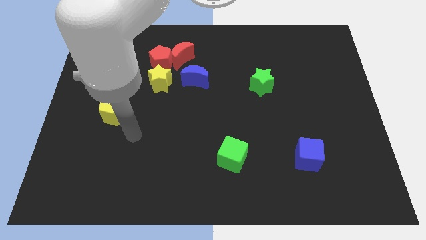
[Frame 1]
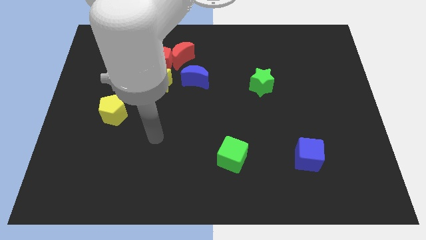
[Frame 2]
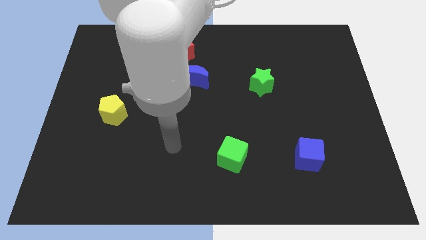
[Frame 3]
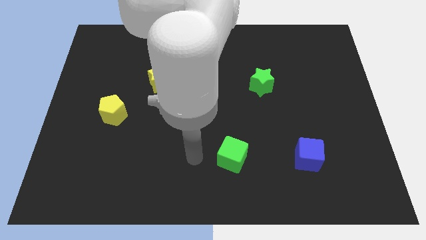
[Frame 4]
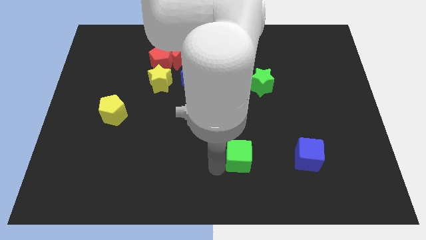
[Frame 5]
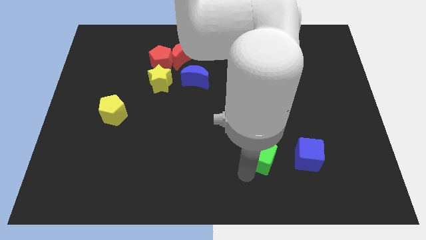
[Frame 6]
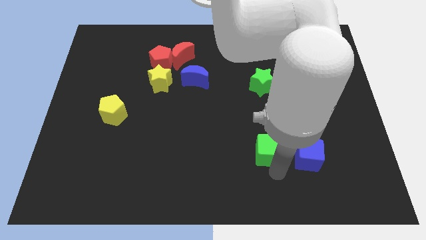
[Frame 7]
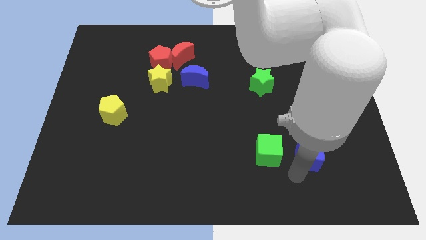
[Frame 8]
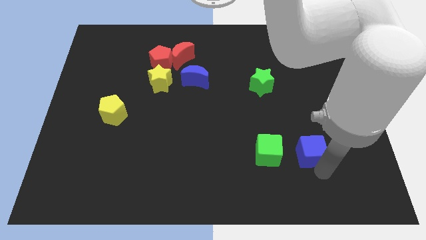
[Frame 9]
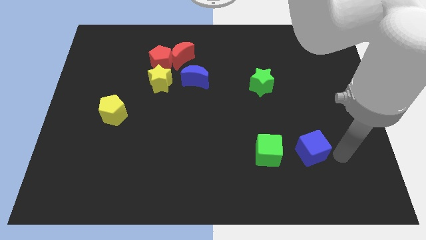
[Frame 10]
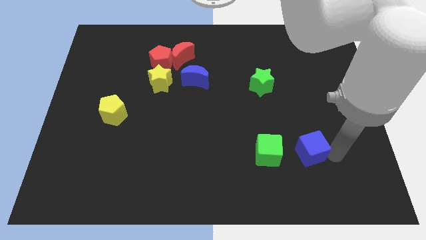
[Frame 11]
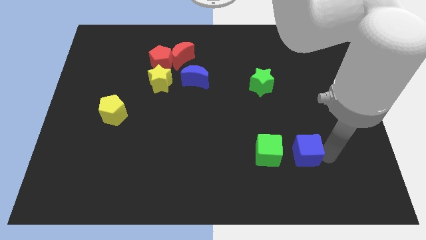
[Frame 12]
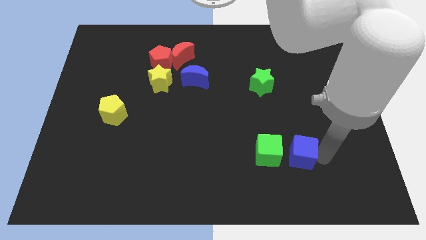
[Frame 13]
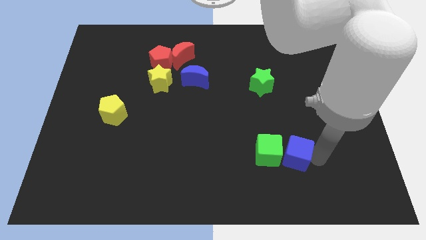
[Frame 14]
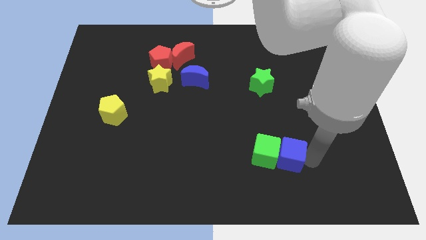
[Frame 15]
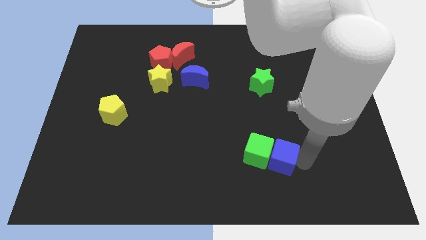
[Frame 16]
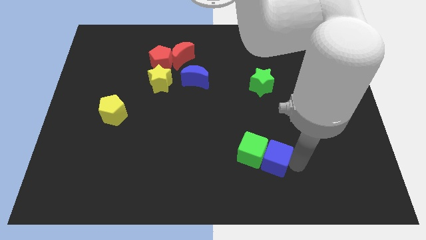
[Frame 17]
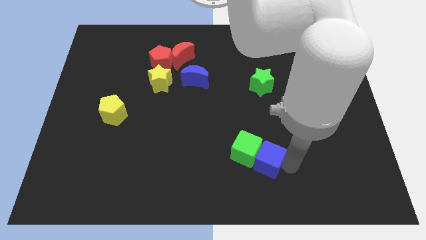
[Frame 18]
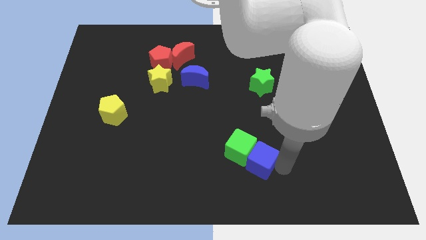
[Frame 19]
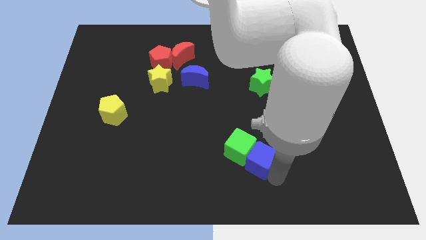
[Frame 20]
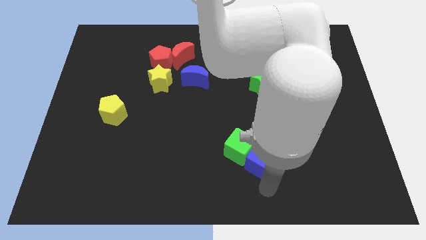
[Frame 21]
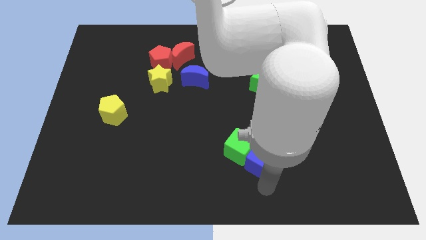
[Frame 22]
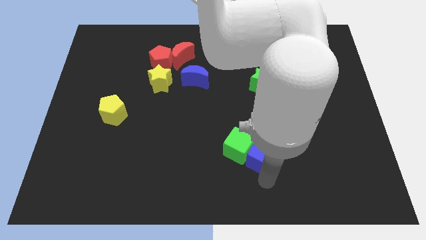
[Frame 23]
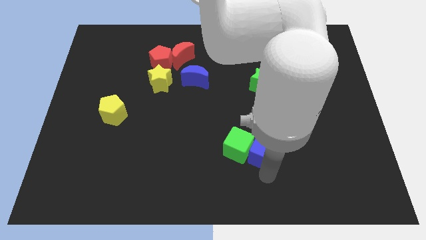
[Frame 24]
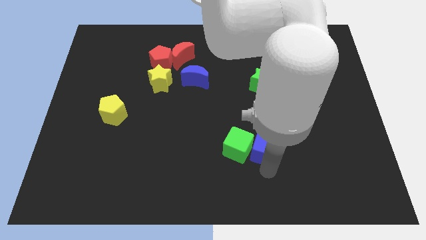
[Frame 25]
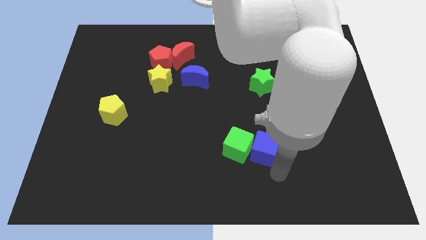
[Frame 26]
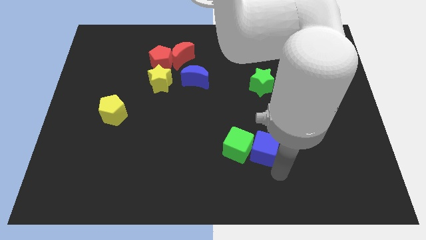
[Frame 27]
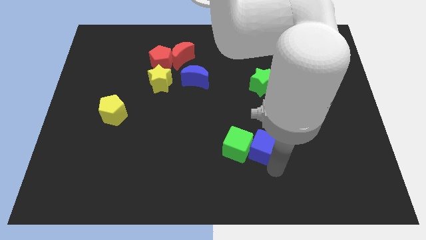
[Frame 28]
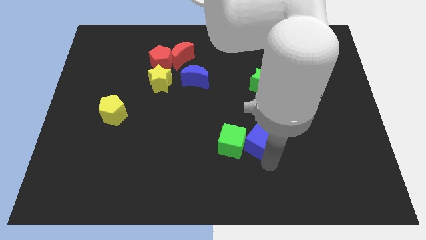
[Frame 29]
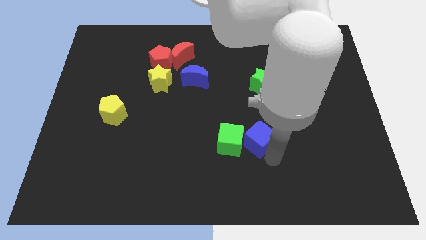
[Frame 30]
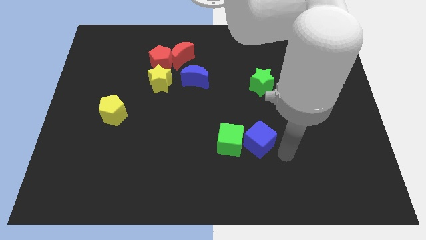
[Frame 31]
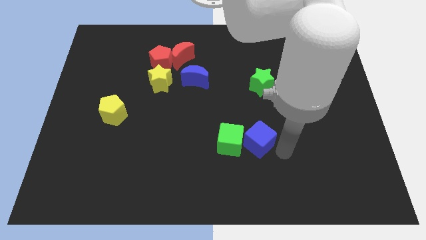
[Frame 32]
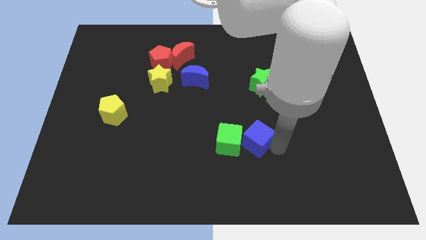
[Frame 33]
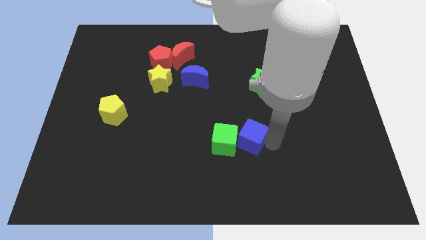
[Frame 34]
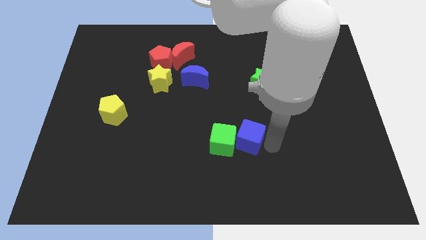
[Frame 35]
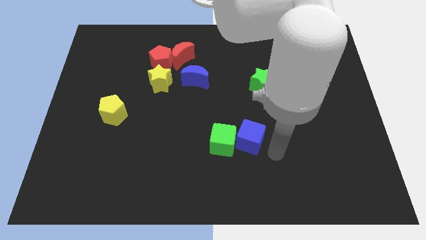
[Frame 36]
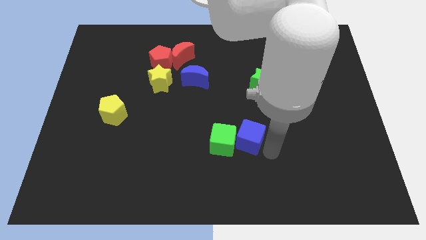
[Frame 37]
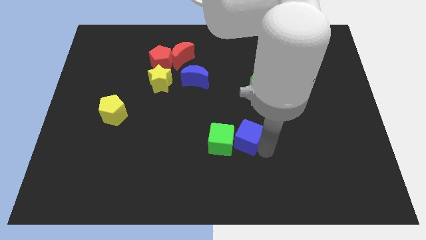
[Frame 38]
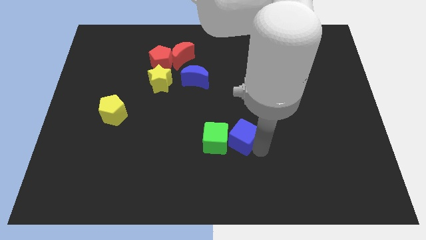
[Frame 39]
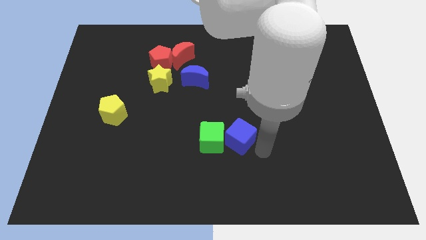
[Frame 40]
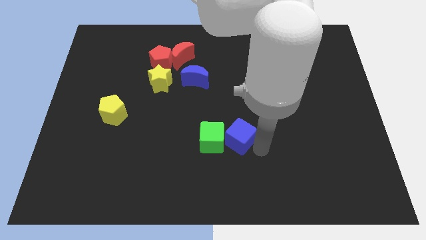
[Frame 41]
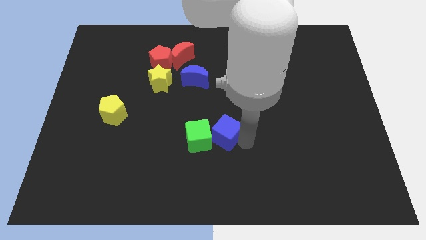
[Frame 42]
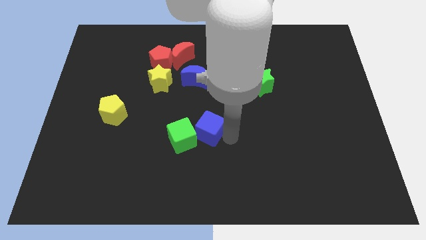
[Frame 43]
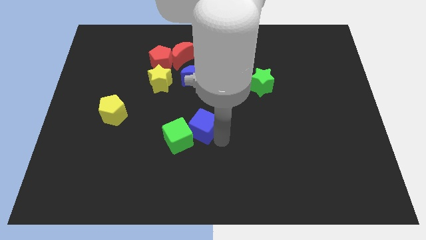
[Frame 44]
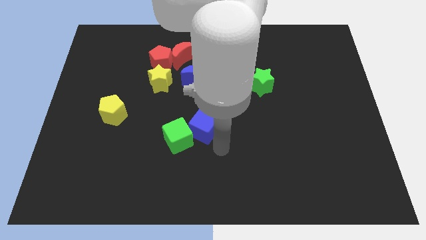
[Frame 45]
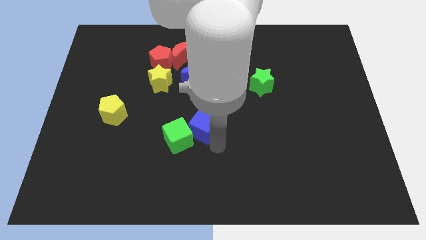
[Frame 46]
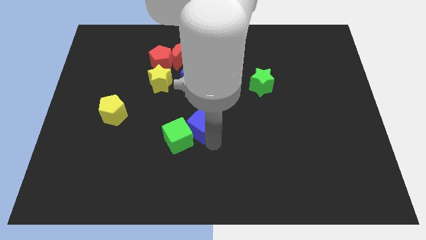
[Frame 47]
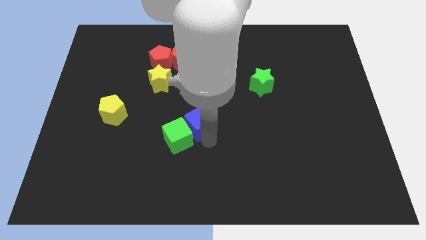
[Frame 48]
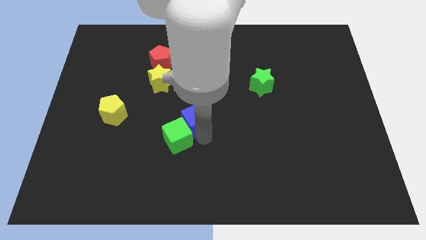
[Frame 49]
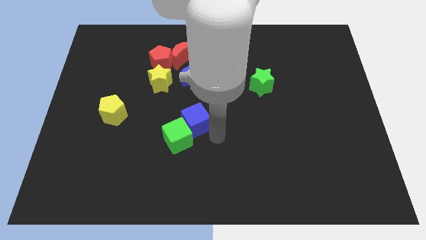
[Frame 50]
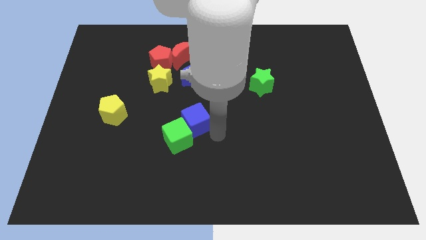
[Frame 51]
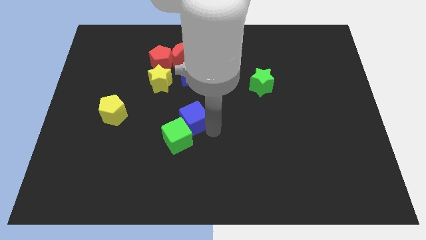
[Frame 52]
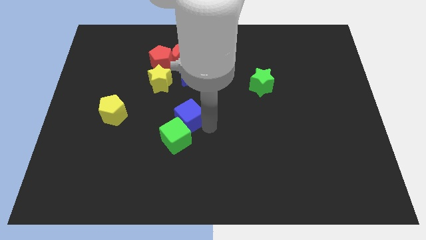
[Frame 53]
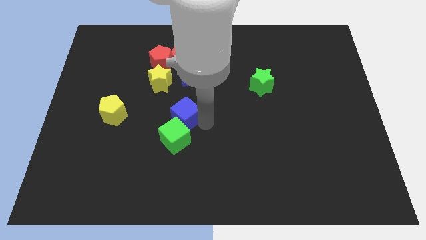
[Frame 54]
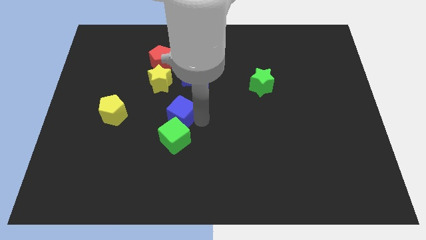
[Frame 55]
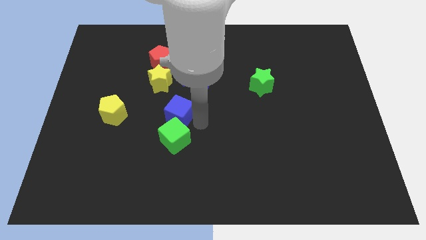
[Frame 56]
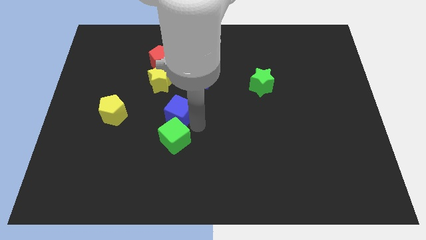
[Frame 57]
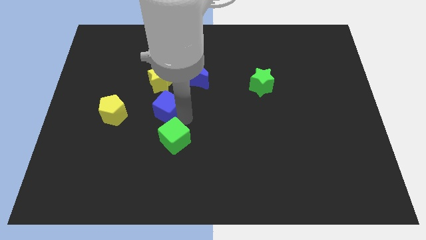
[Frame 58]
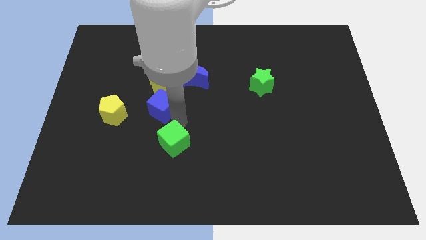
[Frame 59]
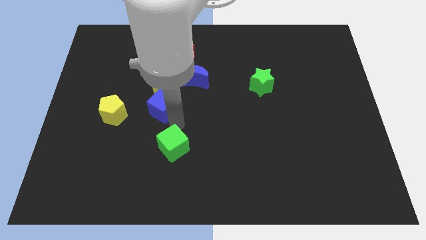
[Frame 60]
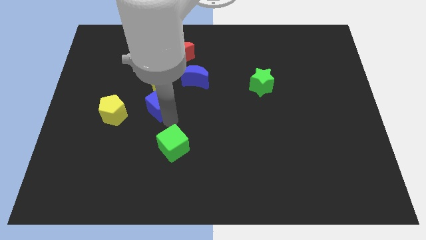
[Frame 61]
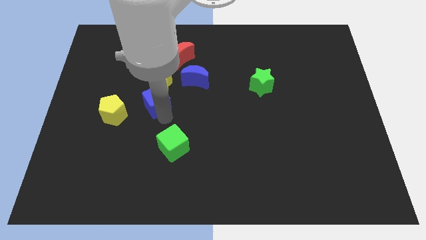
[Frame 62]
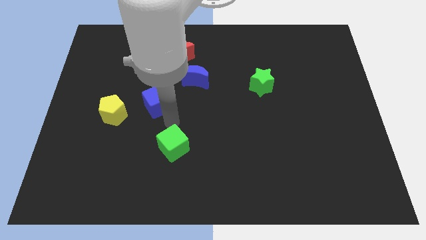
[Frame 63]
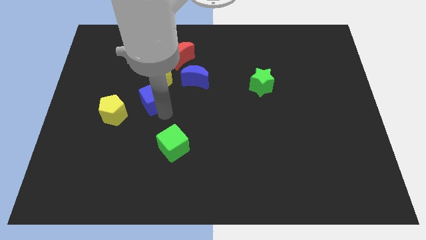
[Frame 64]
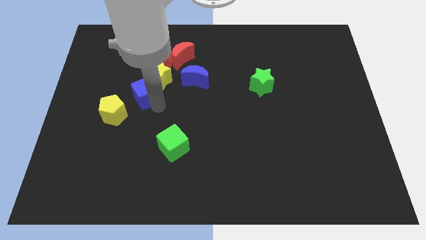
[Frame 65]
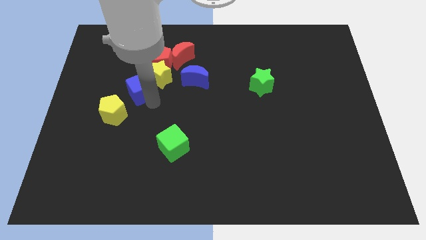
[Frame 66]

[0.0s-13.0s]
move the blue cube to the bottom left of the red pentagon

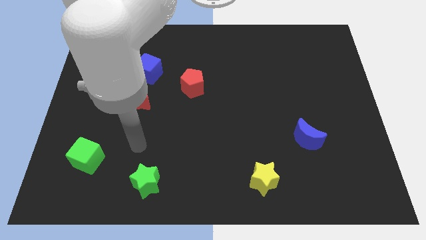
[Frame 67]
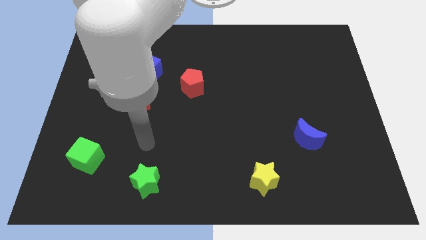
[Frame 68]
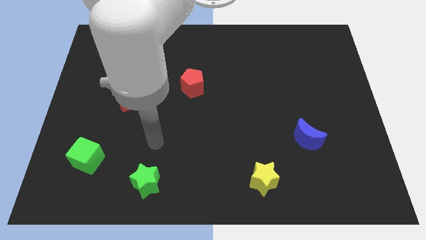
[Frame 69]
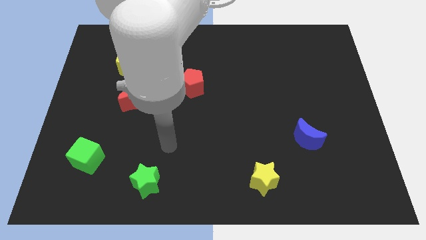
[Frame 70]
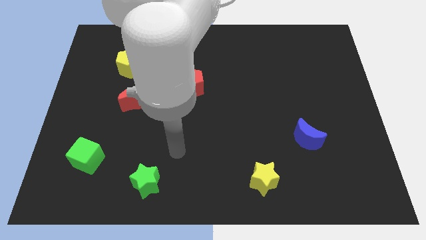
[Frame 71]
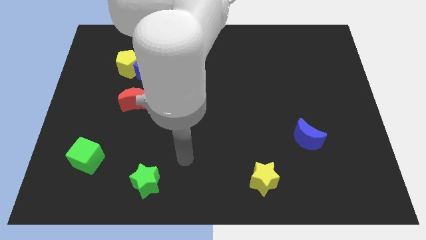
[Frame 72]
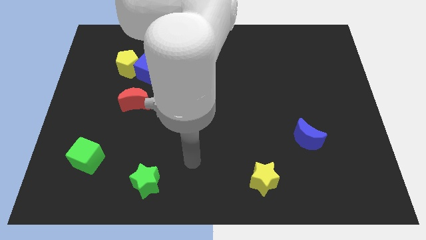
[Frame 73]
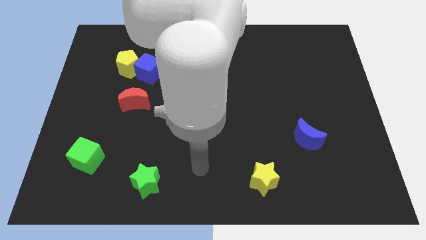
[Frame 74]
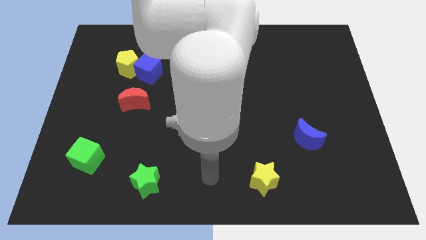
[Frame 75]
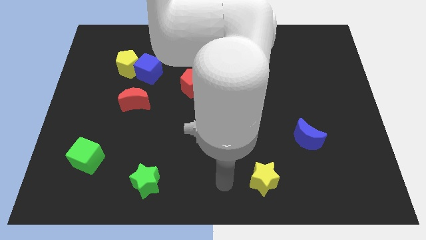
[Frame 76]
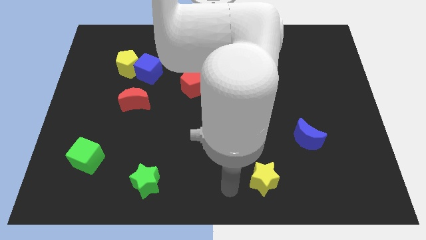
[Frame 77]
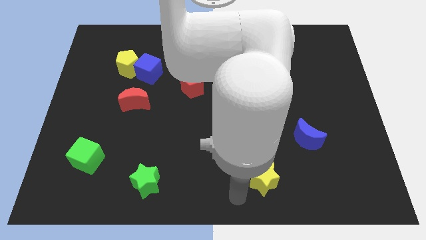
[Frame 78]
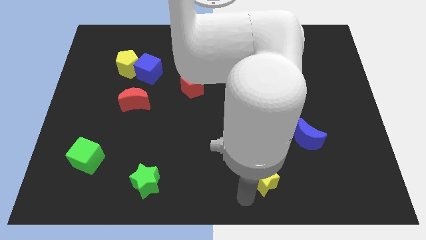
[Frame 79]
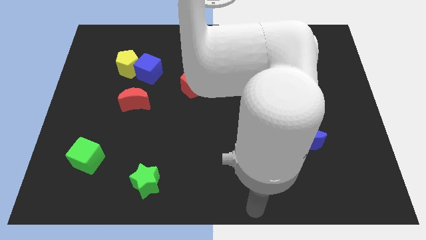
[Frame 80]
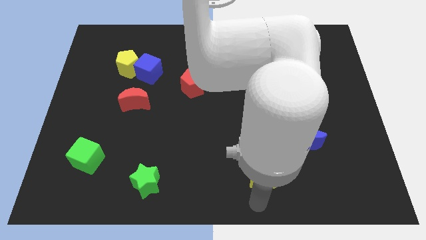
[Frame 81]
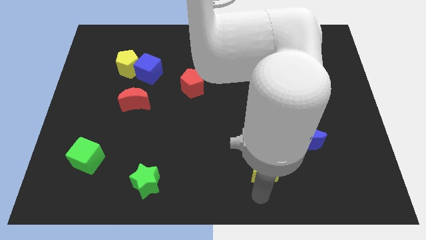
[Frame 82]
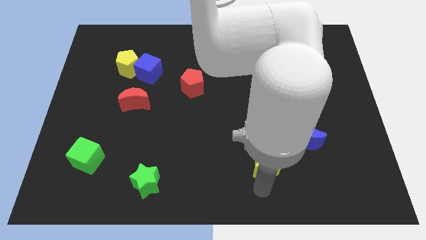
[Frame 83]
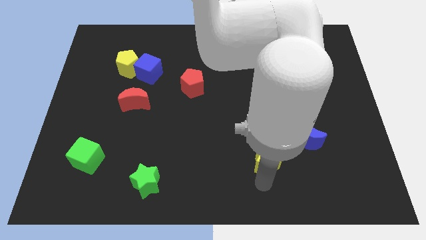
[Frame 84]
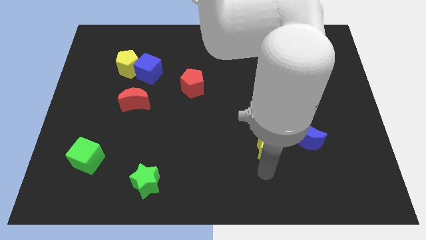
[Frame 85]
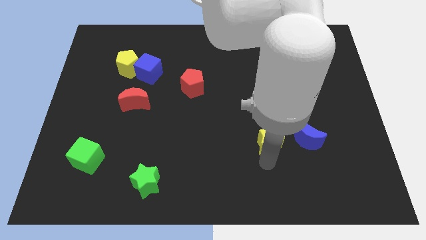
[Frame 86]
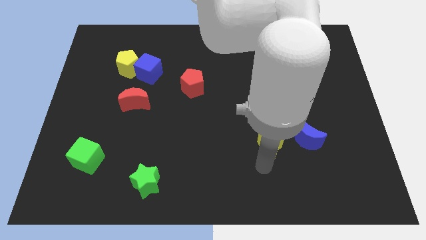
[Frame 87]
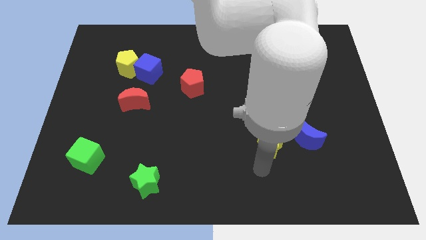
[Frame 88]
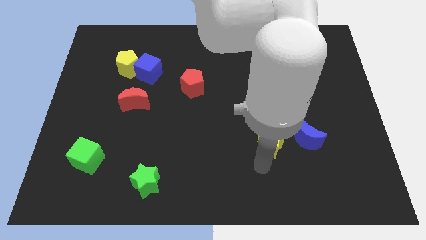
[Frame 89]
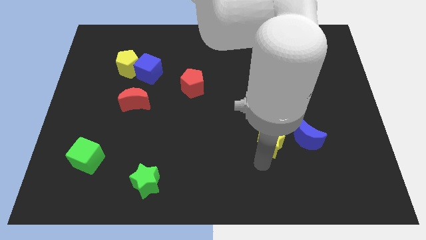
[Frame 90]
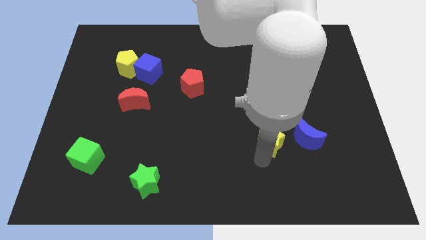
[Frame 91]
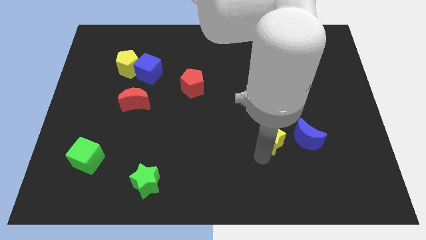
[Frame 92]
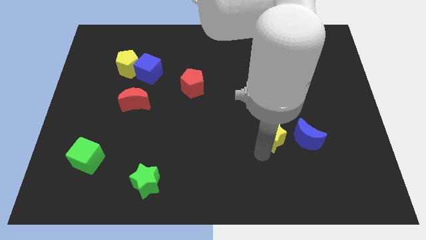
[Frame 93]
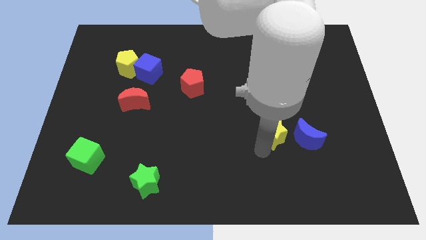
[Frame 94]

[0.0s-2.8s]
put the yellow star to the top left side of the blue moon
